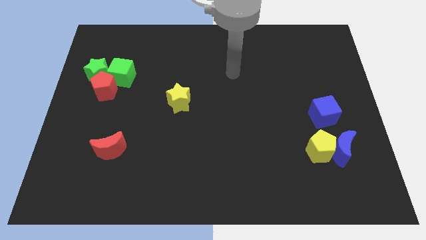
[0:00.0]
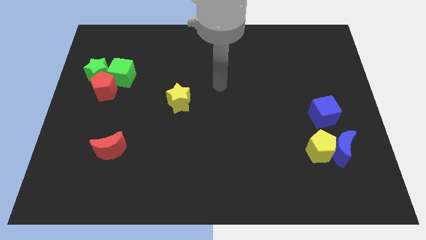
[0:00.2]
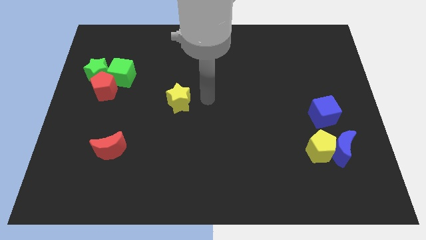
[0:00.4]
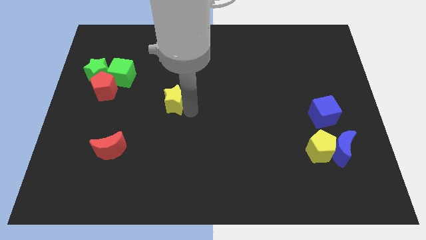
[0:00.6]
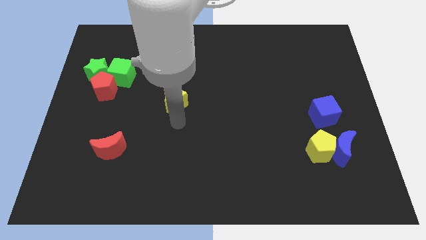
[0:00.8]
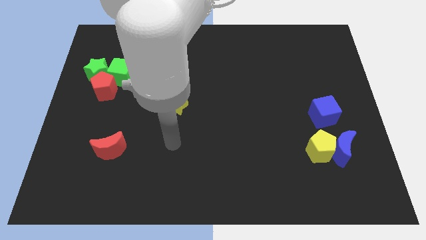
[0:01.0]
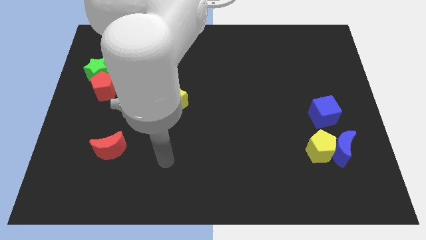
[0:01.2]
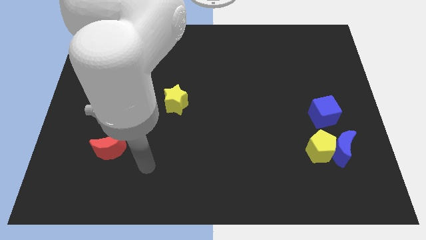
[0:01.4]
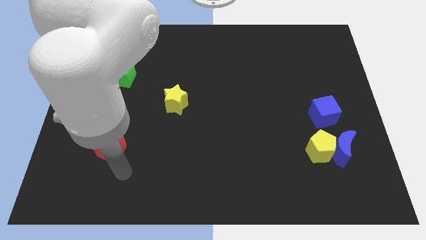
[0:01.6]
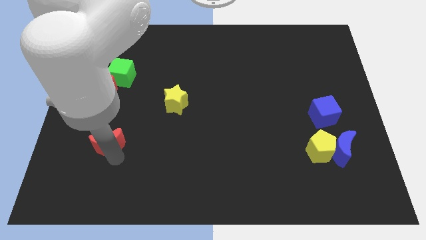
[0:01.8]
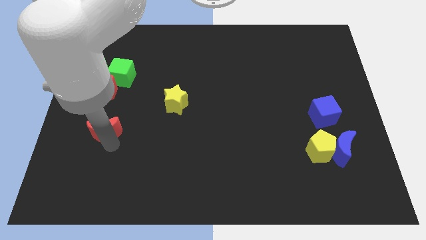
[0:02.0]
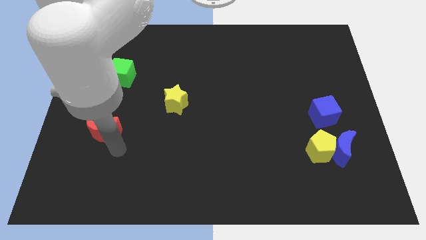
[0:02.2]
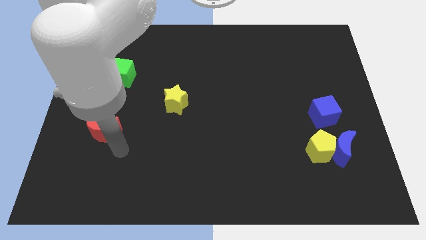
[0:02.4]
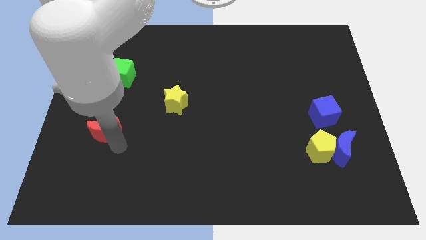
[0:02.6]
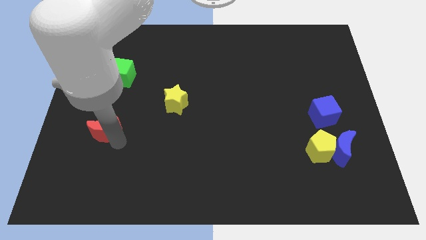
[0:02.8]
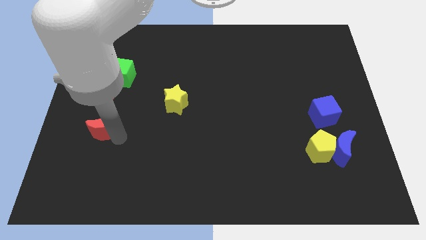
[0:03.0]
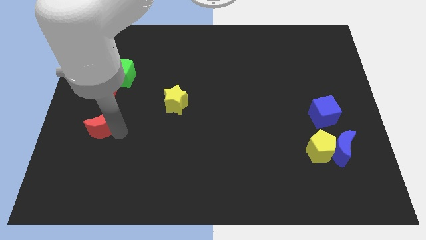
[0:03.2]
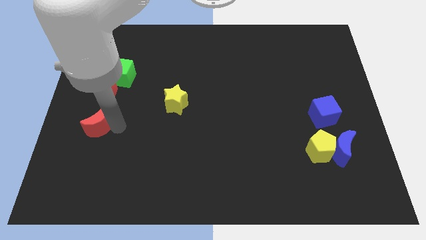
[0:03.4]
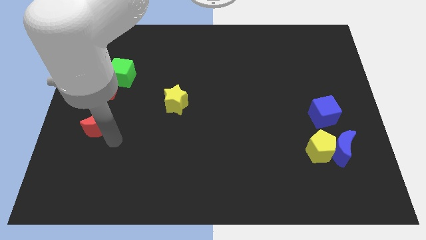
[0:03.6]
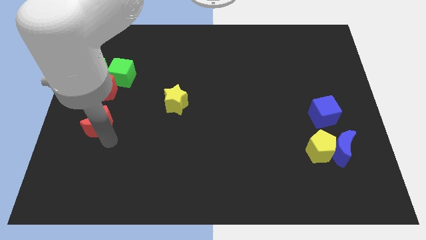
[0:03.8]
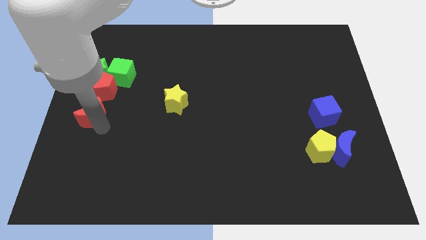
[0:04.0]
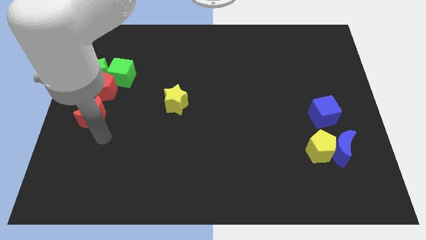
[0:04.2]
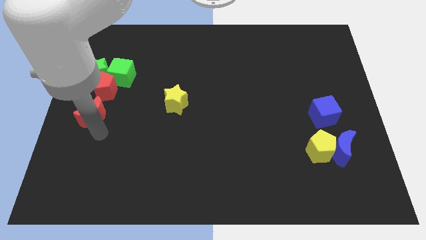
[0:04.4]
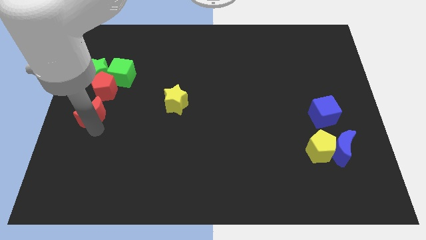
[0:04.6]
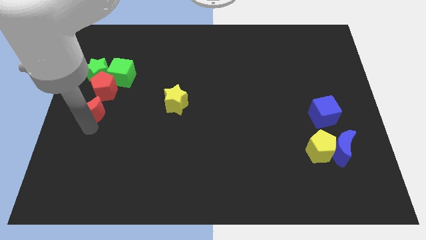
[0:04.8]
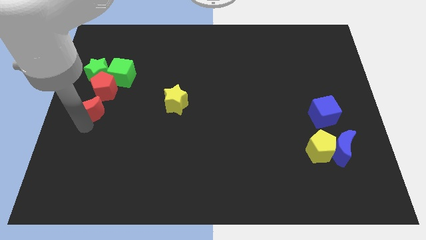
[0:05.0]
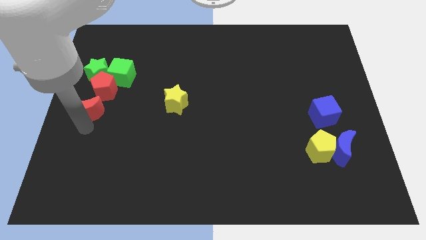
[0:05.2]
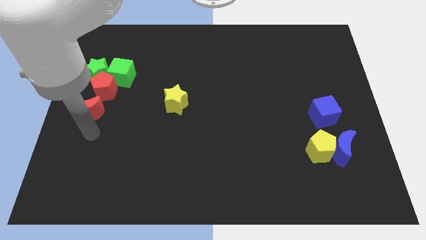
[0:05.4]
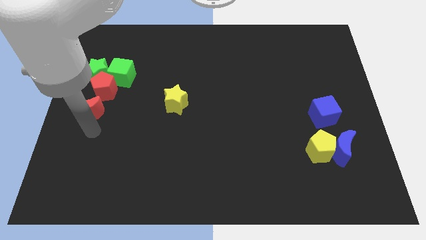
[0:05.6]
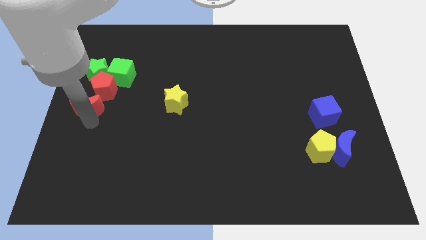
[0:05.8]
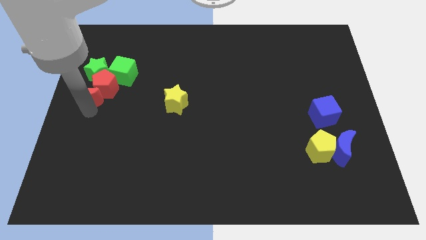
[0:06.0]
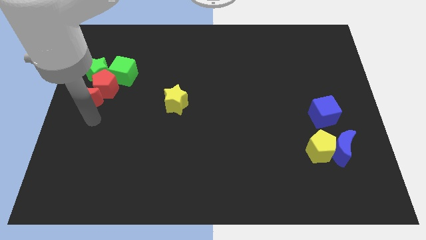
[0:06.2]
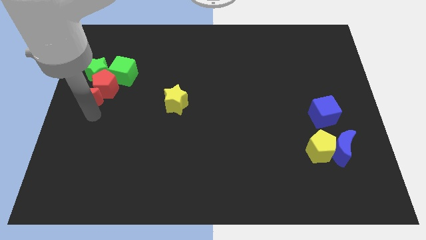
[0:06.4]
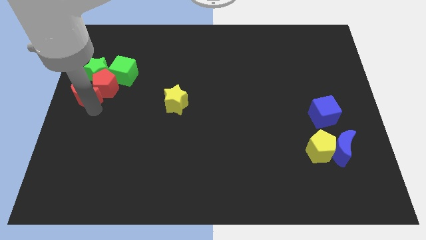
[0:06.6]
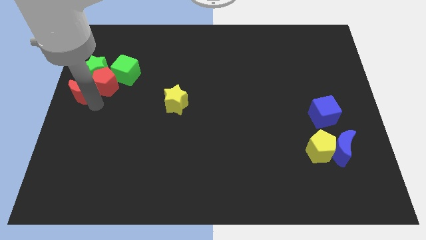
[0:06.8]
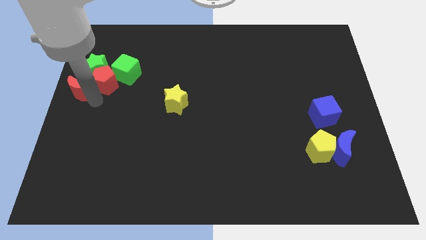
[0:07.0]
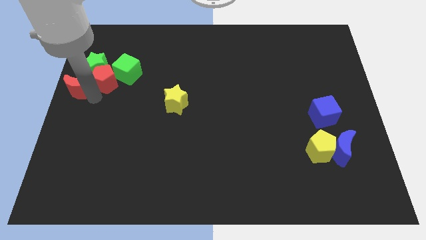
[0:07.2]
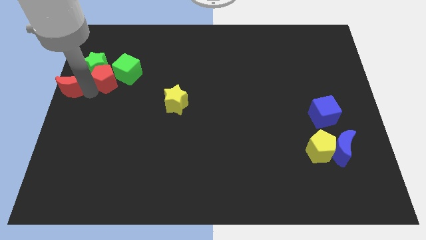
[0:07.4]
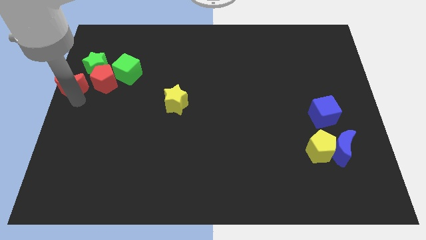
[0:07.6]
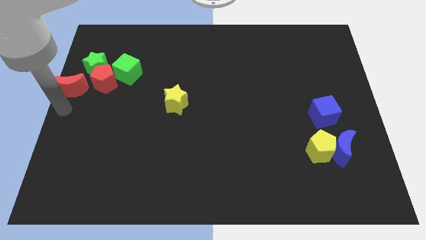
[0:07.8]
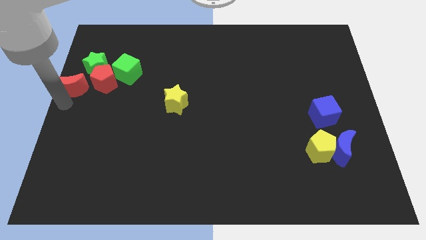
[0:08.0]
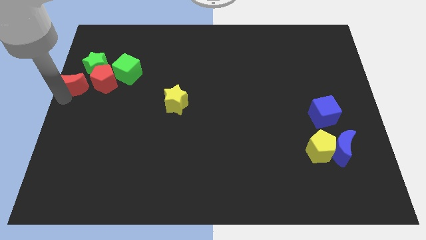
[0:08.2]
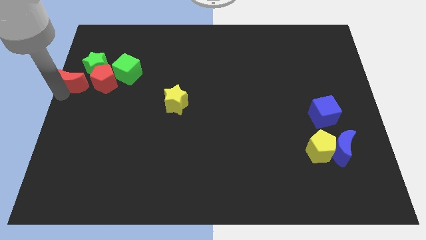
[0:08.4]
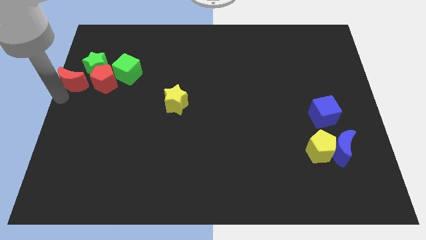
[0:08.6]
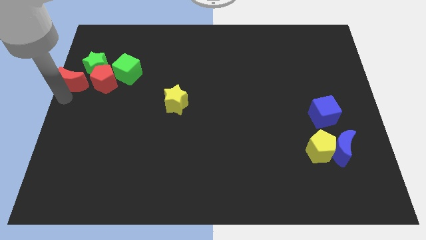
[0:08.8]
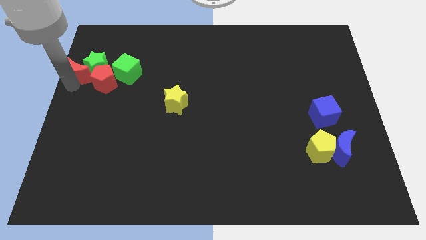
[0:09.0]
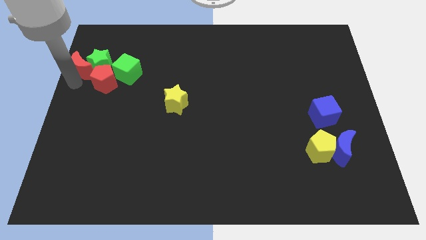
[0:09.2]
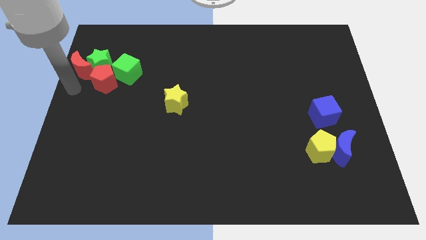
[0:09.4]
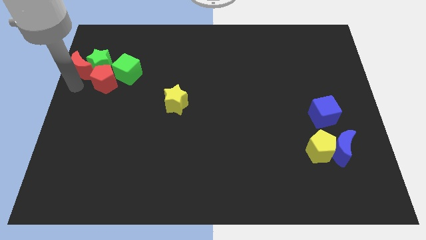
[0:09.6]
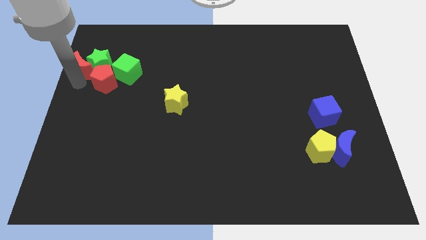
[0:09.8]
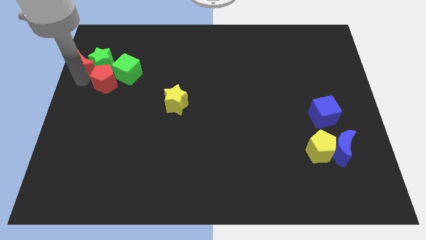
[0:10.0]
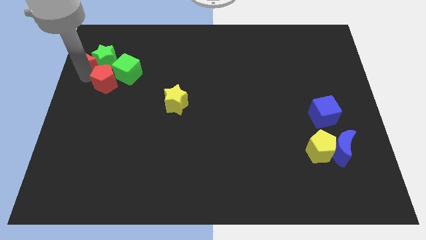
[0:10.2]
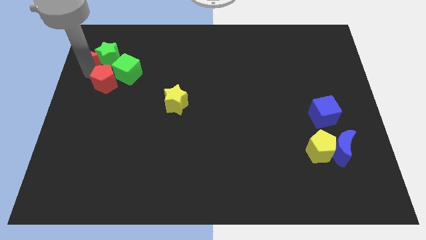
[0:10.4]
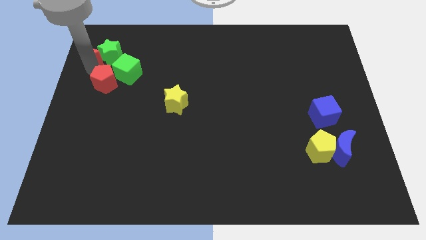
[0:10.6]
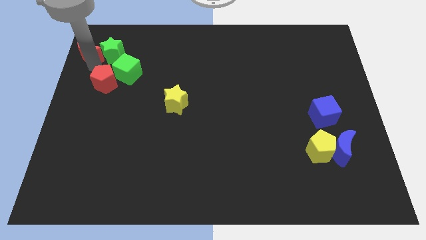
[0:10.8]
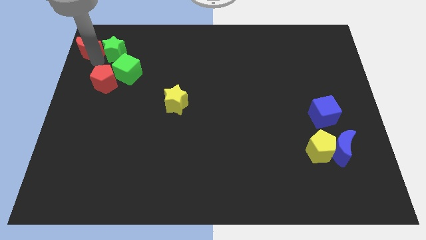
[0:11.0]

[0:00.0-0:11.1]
slide the red moon to the top left corner

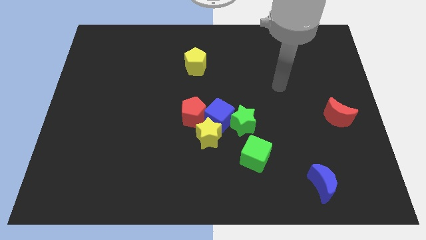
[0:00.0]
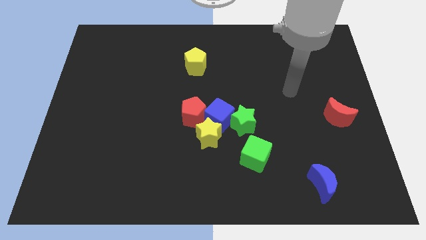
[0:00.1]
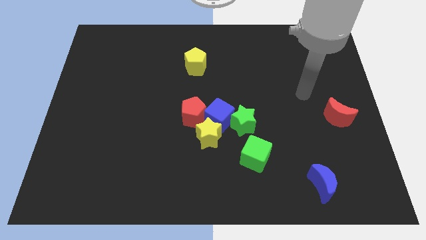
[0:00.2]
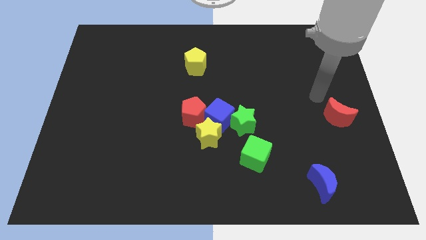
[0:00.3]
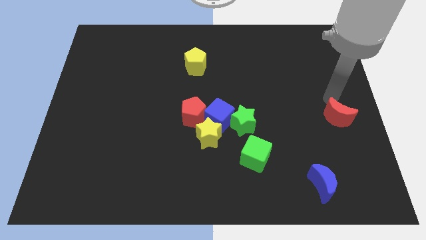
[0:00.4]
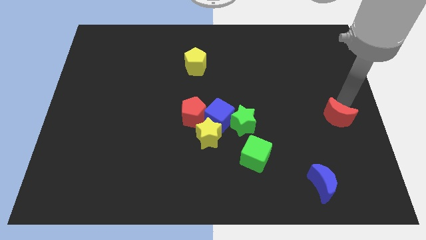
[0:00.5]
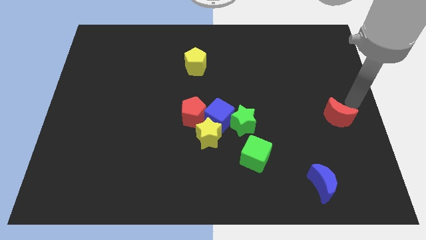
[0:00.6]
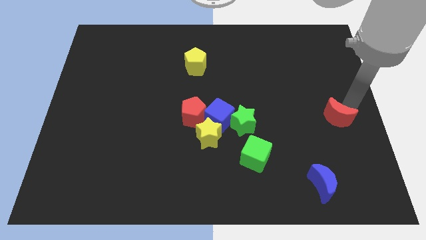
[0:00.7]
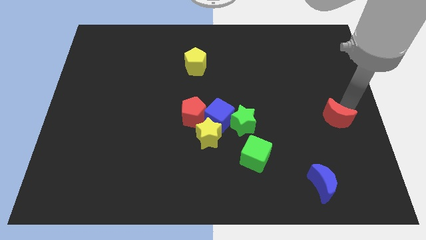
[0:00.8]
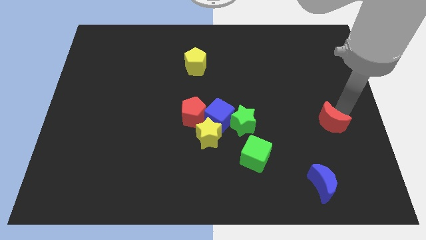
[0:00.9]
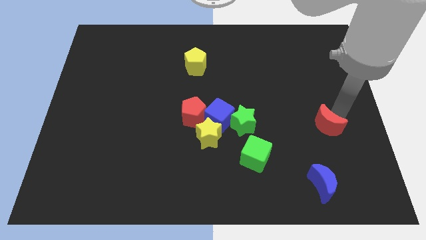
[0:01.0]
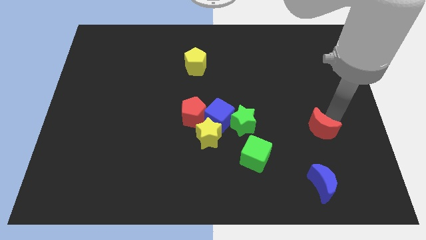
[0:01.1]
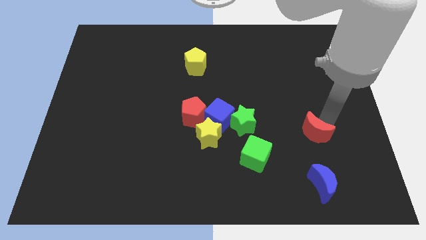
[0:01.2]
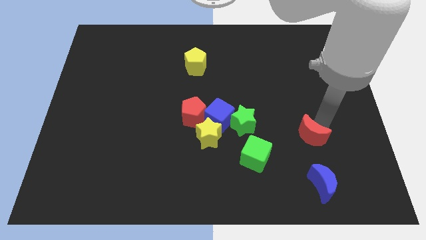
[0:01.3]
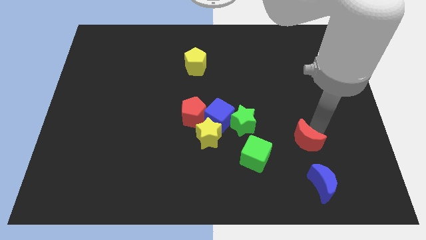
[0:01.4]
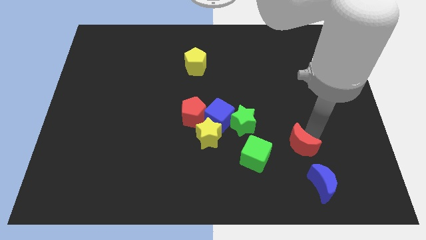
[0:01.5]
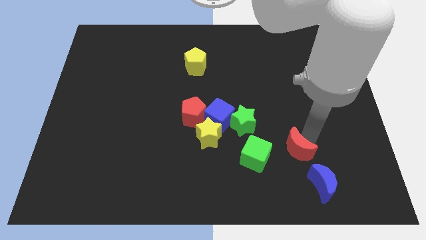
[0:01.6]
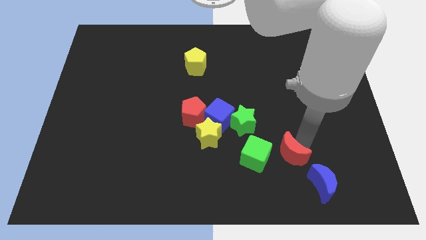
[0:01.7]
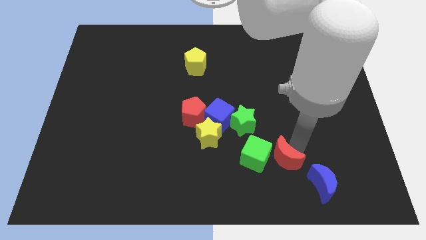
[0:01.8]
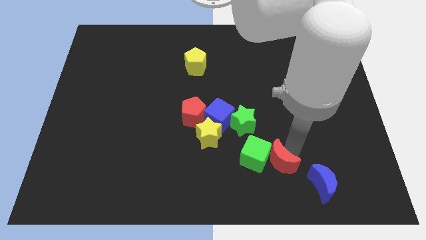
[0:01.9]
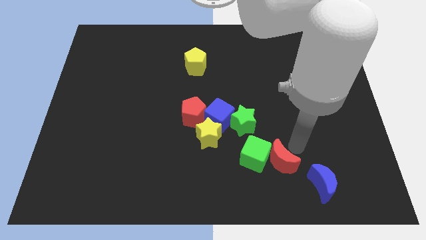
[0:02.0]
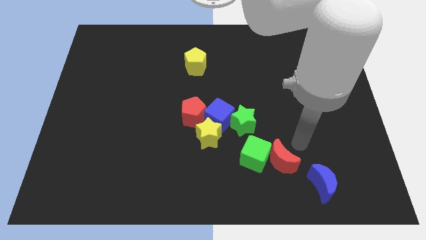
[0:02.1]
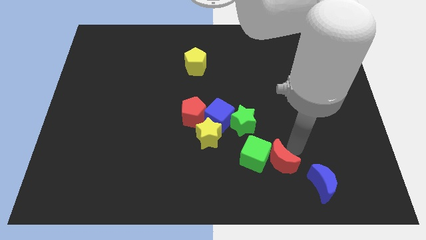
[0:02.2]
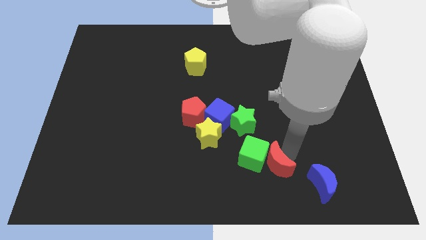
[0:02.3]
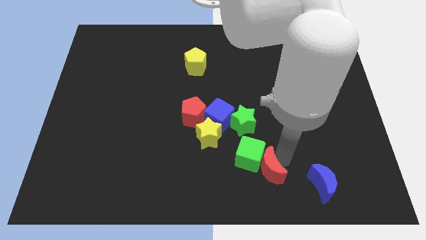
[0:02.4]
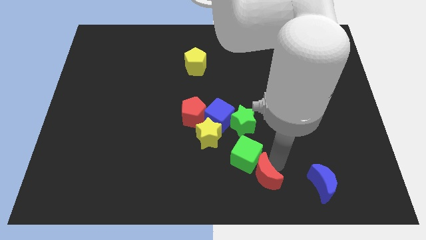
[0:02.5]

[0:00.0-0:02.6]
put the red moon to the bottom side
